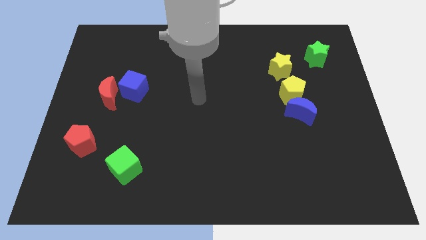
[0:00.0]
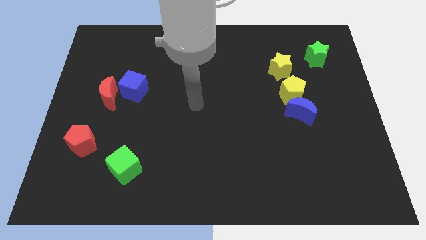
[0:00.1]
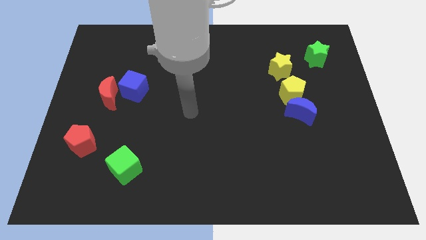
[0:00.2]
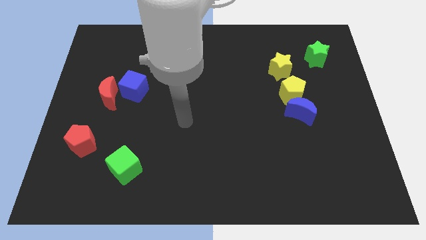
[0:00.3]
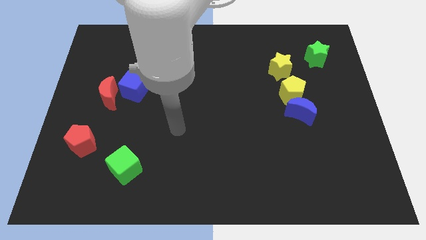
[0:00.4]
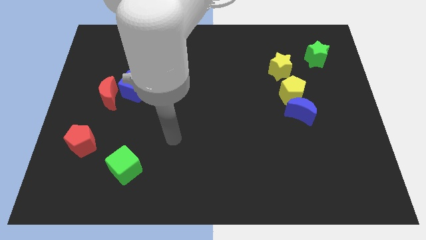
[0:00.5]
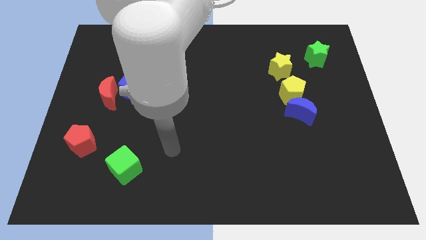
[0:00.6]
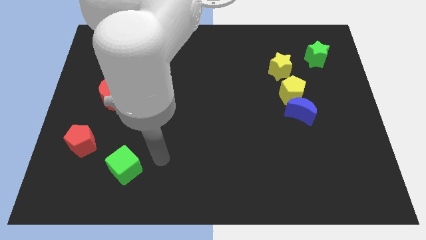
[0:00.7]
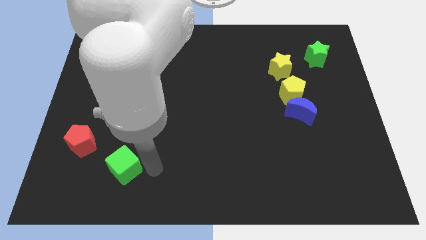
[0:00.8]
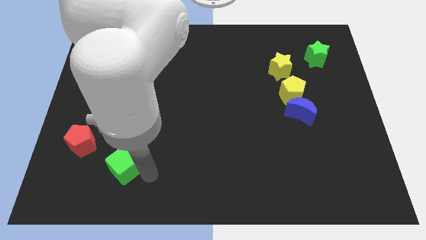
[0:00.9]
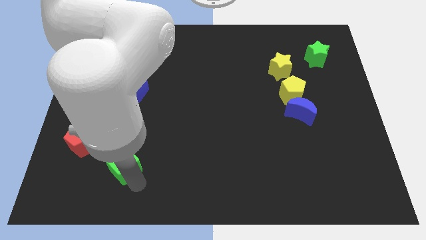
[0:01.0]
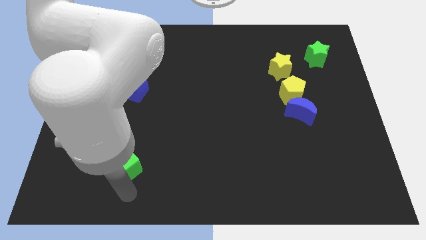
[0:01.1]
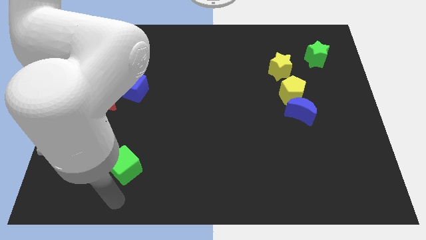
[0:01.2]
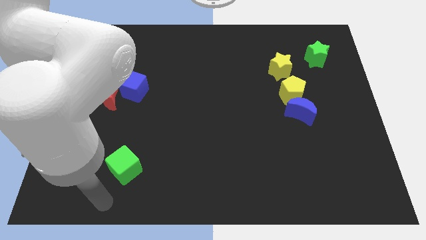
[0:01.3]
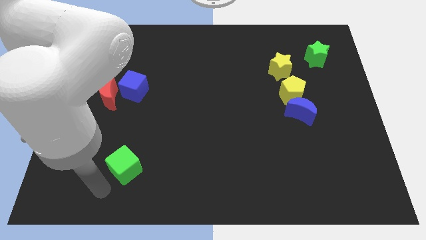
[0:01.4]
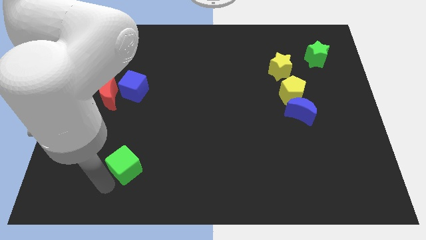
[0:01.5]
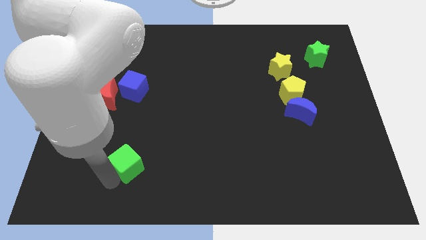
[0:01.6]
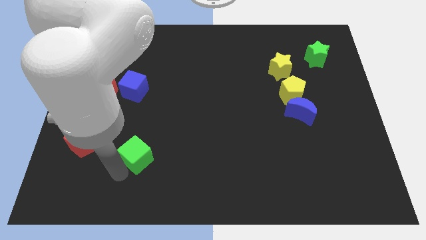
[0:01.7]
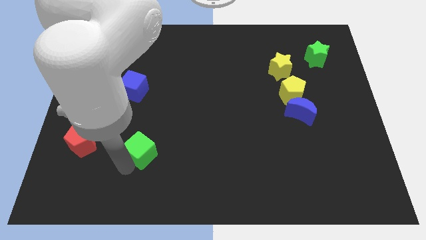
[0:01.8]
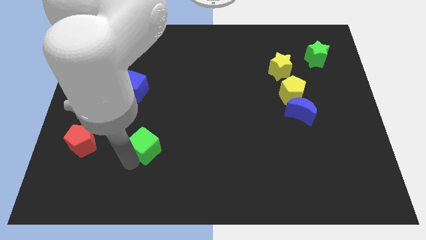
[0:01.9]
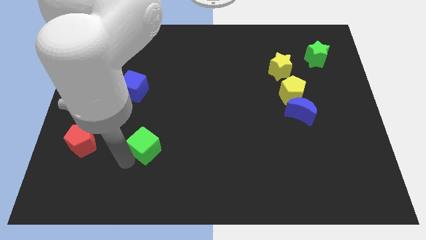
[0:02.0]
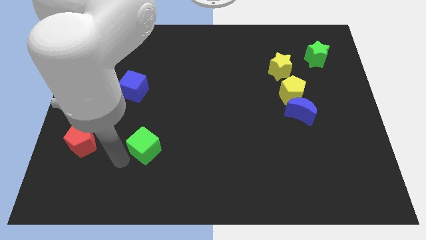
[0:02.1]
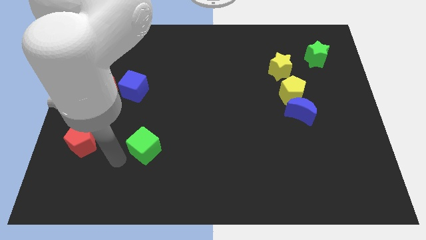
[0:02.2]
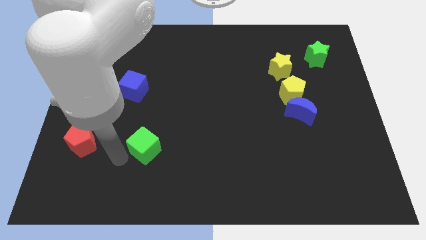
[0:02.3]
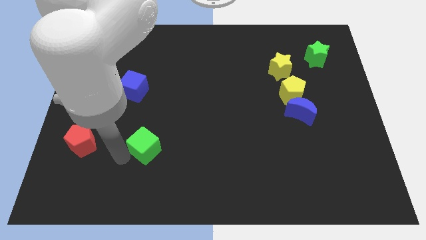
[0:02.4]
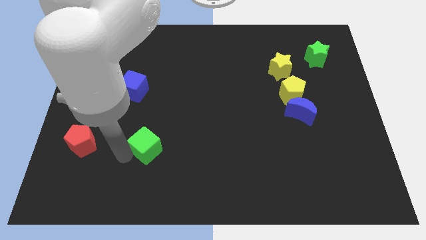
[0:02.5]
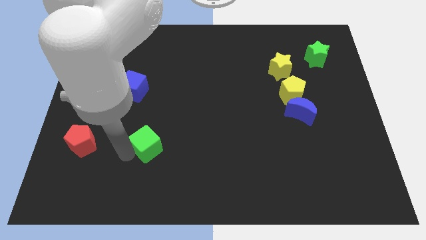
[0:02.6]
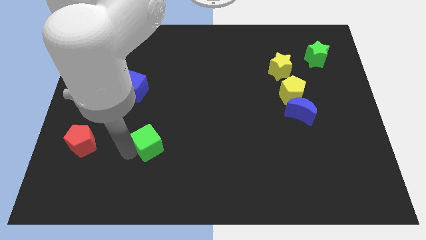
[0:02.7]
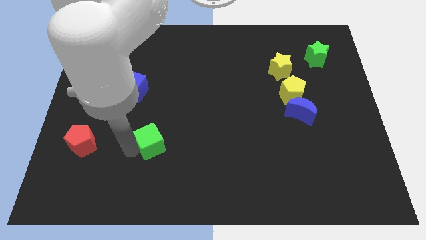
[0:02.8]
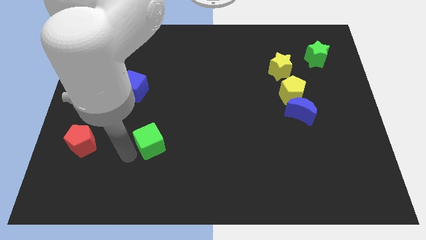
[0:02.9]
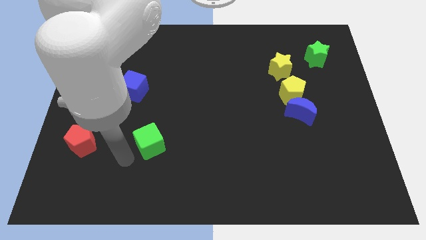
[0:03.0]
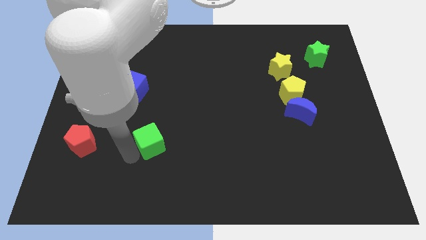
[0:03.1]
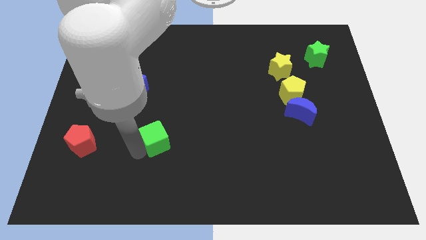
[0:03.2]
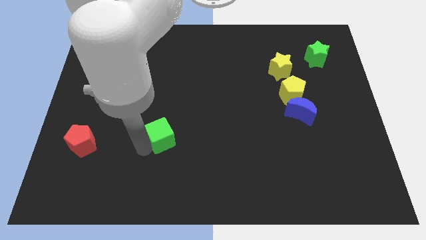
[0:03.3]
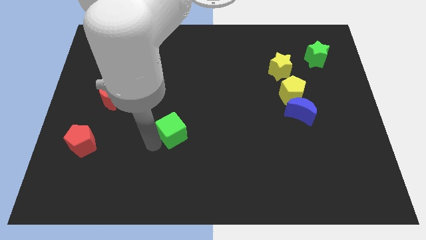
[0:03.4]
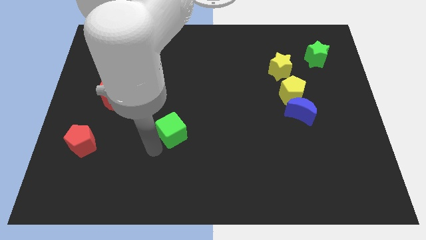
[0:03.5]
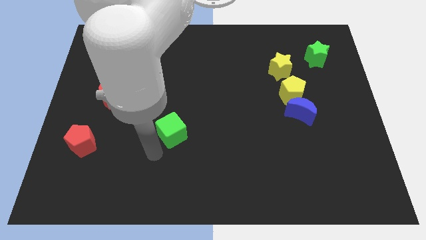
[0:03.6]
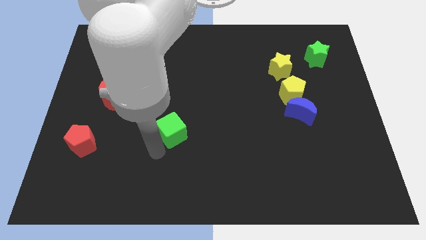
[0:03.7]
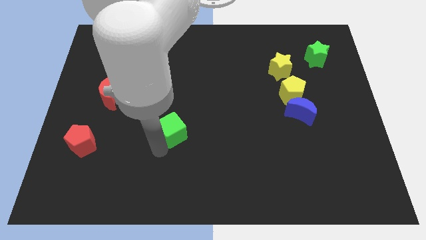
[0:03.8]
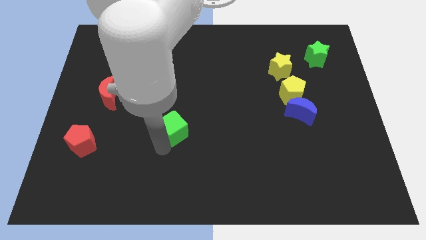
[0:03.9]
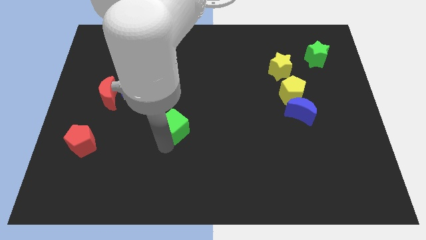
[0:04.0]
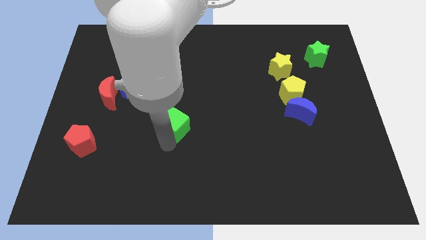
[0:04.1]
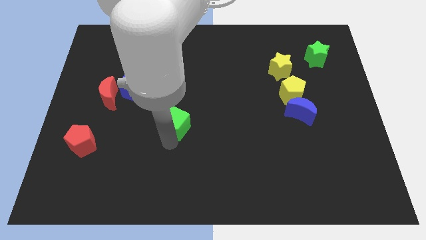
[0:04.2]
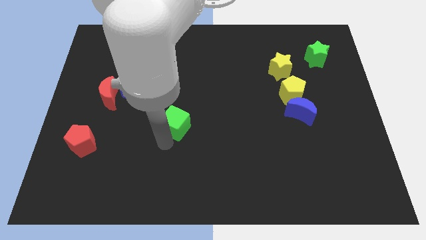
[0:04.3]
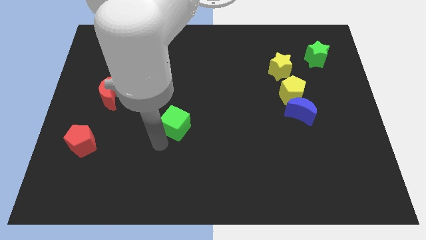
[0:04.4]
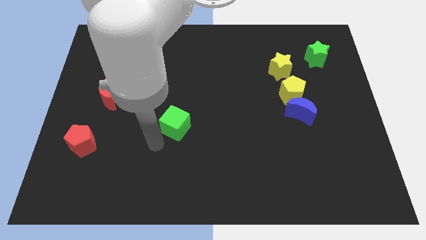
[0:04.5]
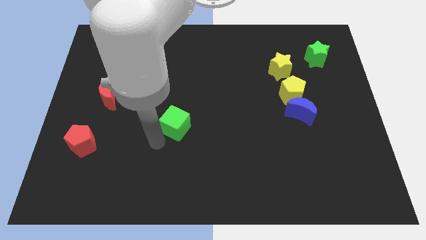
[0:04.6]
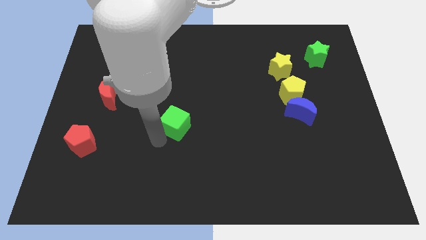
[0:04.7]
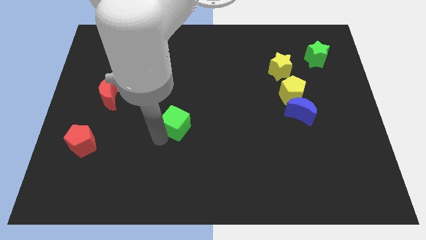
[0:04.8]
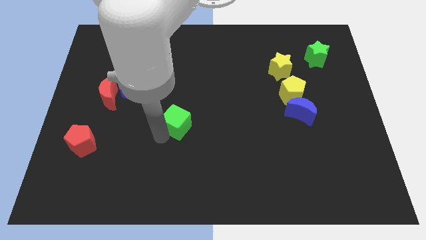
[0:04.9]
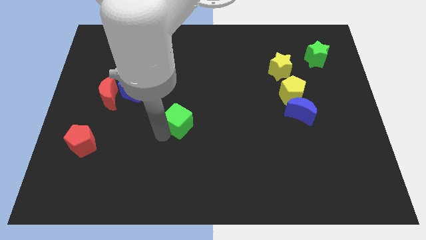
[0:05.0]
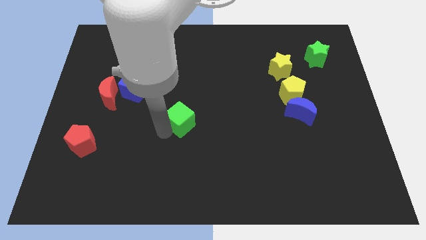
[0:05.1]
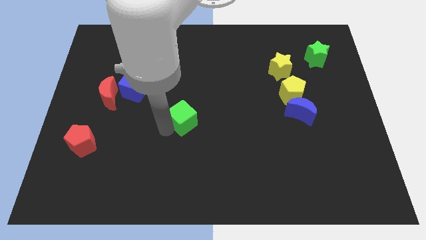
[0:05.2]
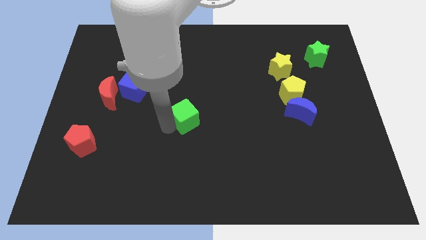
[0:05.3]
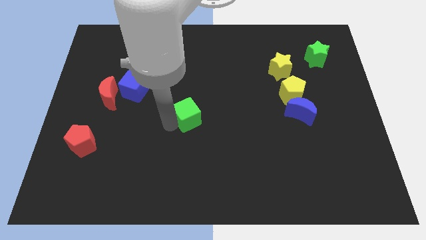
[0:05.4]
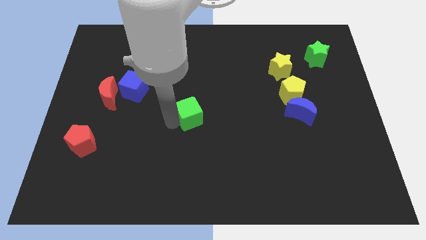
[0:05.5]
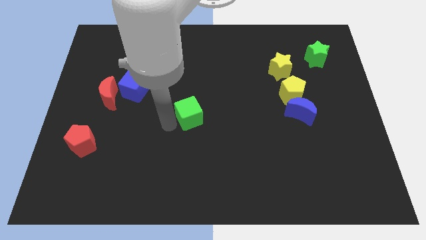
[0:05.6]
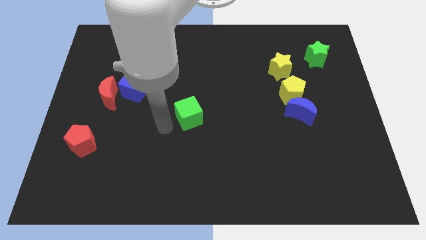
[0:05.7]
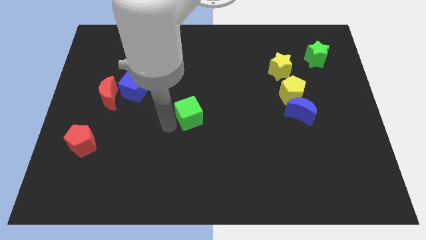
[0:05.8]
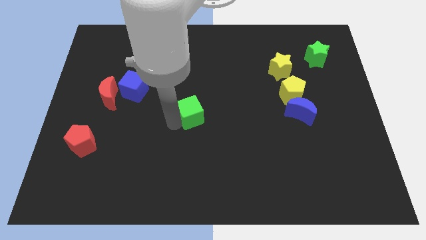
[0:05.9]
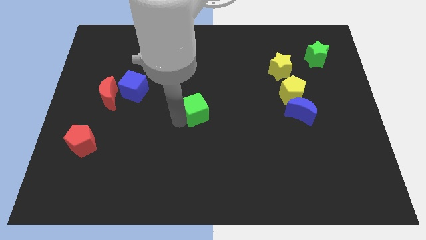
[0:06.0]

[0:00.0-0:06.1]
push the green cube up and then to the right

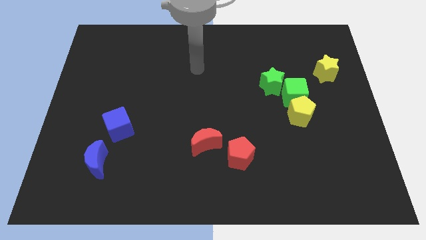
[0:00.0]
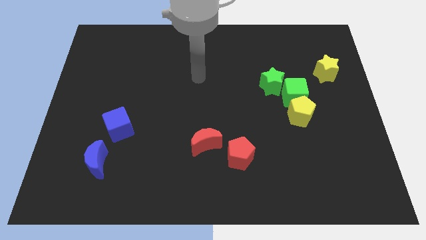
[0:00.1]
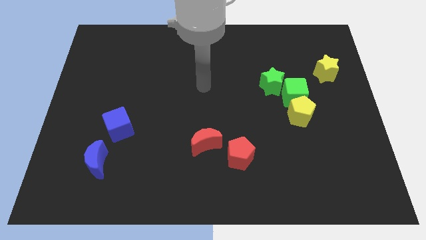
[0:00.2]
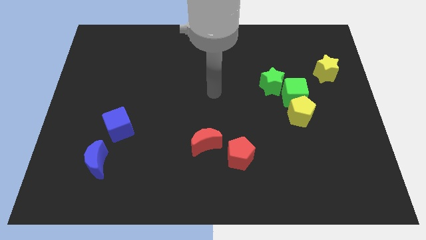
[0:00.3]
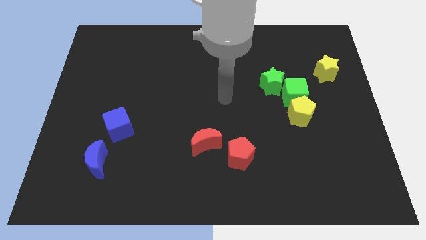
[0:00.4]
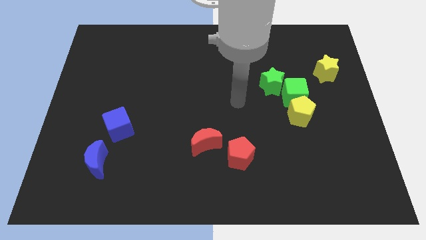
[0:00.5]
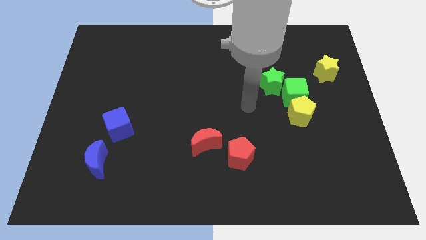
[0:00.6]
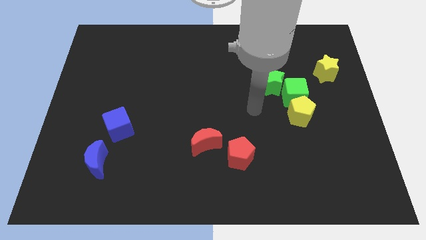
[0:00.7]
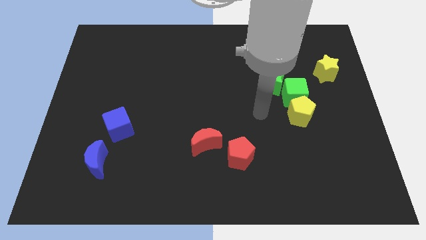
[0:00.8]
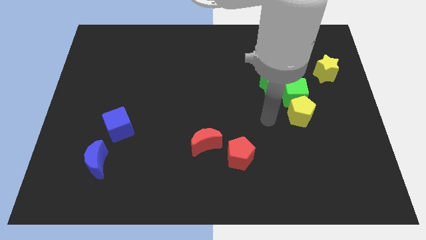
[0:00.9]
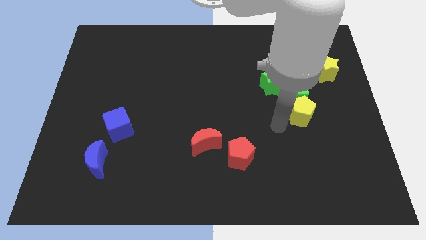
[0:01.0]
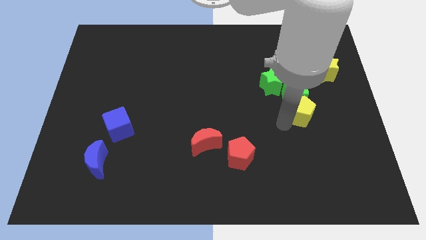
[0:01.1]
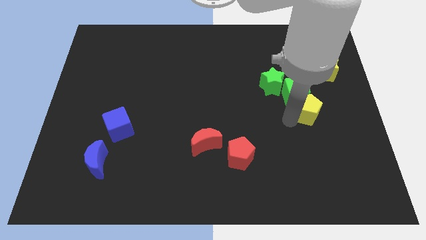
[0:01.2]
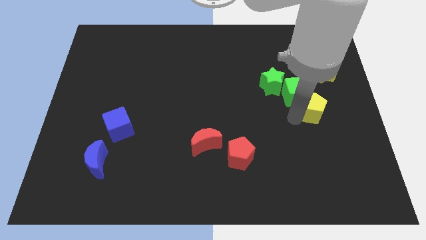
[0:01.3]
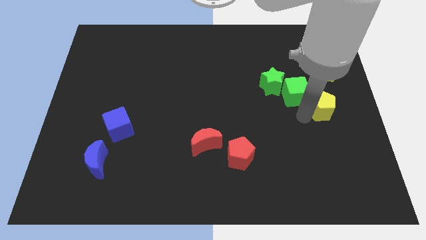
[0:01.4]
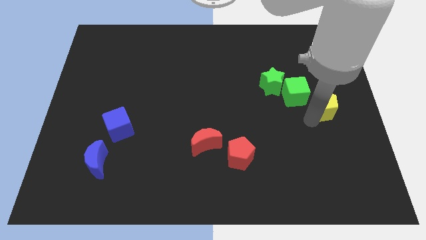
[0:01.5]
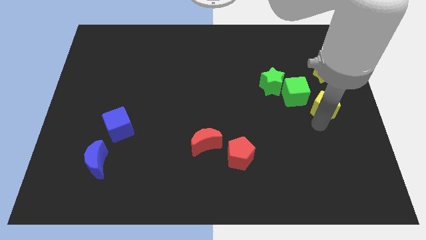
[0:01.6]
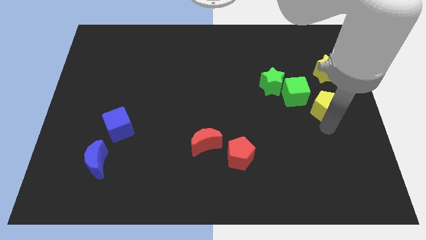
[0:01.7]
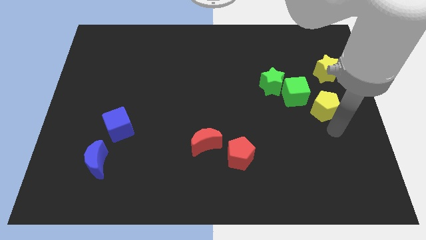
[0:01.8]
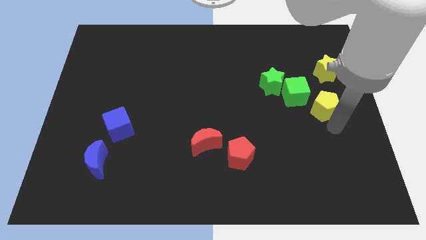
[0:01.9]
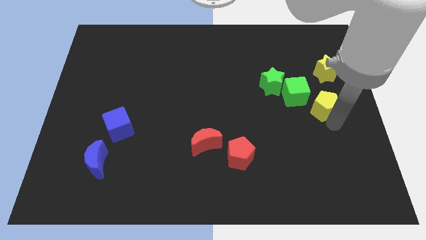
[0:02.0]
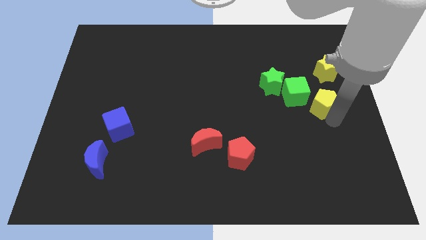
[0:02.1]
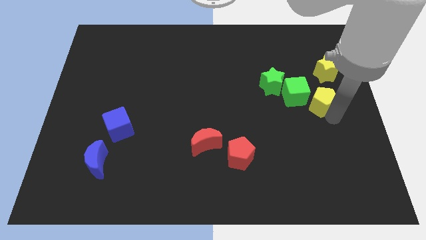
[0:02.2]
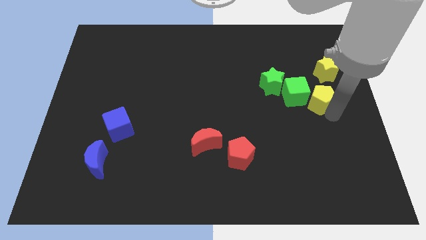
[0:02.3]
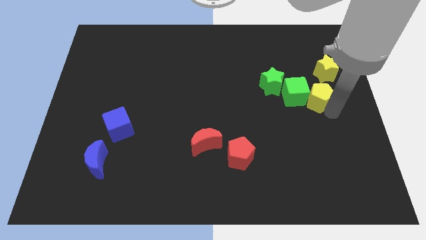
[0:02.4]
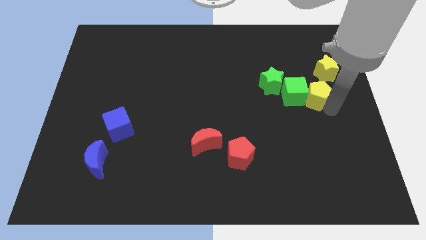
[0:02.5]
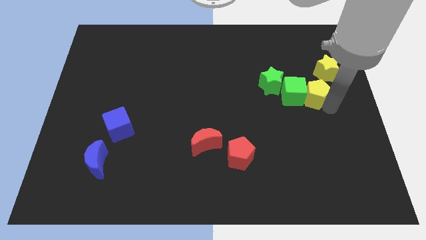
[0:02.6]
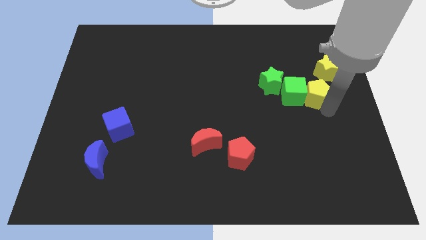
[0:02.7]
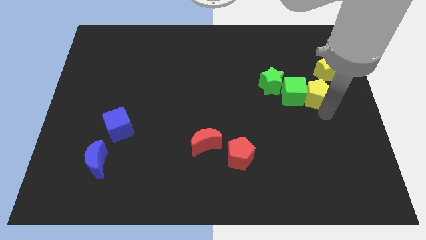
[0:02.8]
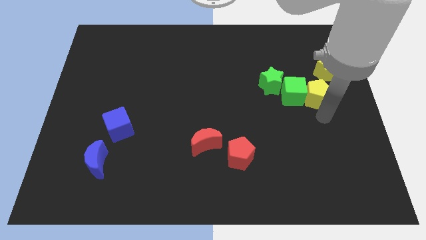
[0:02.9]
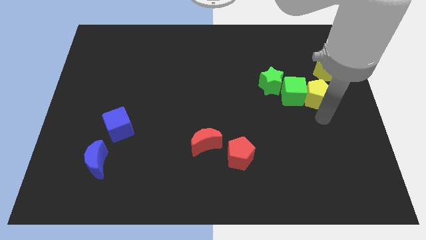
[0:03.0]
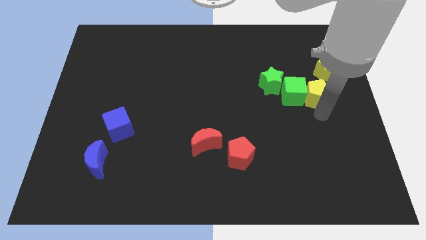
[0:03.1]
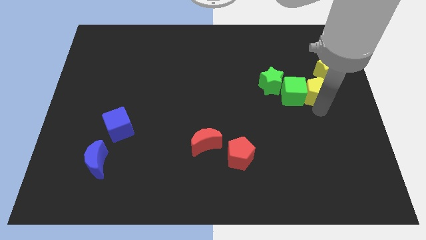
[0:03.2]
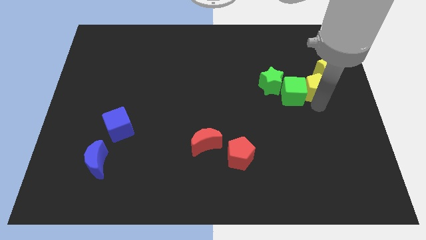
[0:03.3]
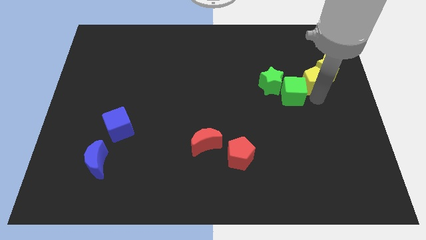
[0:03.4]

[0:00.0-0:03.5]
slide the yellow pentagon upwards somewhat
